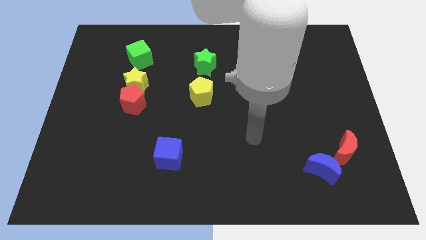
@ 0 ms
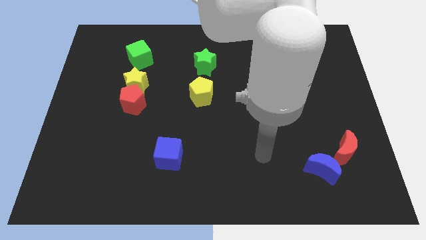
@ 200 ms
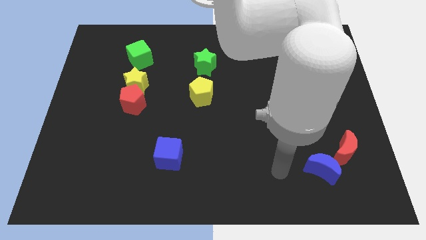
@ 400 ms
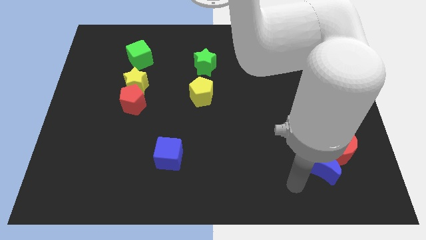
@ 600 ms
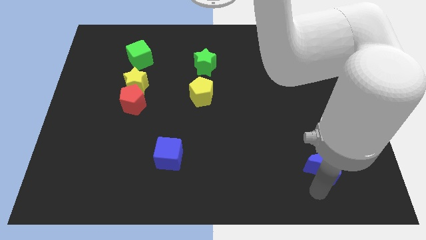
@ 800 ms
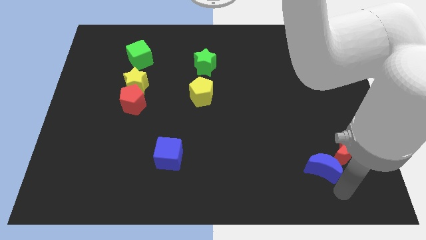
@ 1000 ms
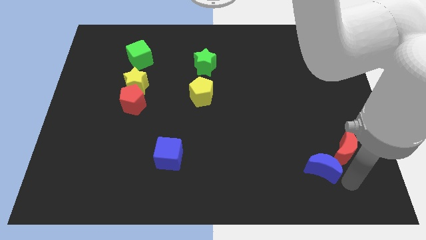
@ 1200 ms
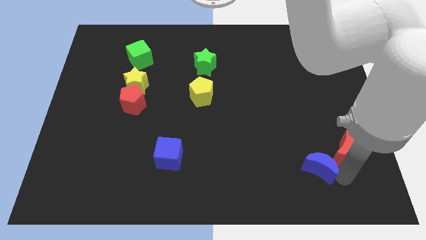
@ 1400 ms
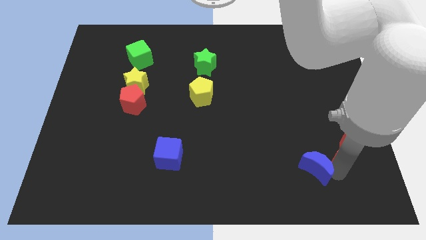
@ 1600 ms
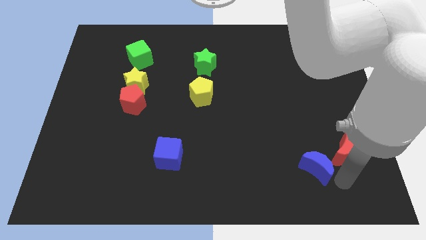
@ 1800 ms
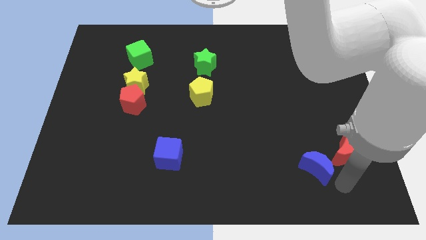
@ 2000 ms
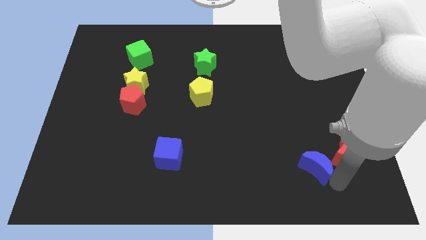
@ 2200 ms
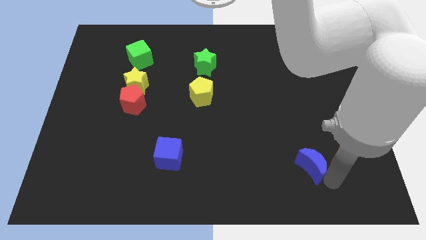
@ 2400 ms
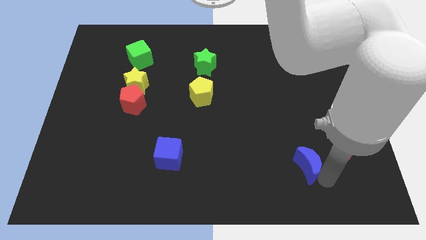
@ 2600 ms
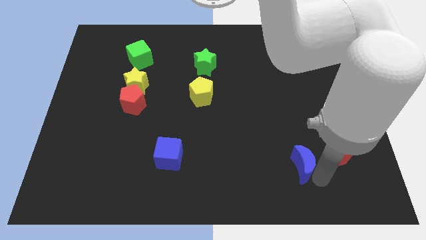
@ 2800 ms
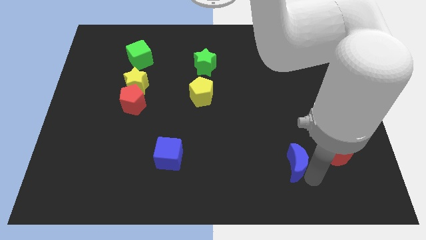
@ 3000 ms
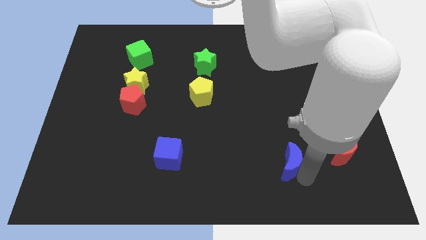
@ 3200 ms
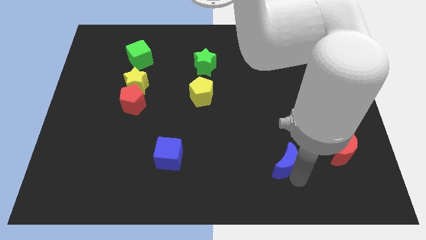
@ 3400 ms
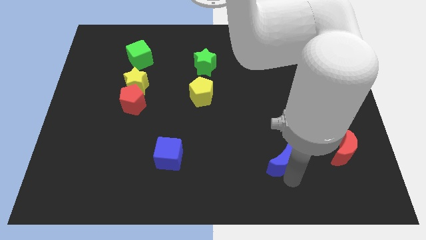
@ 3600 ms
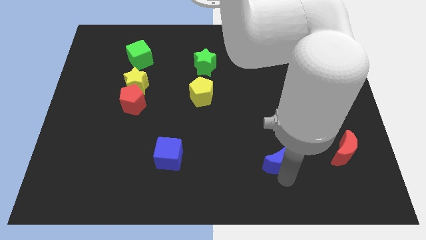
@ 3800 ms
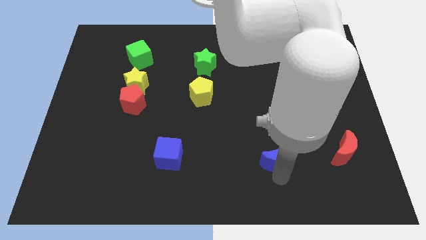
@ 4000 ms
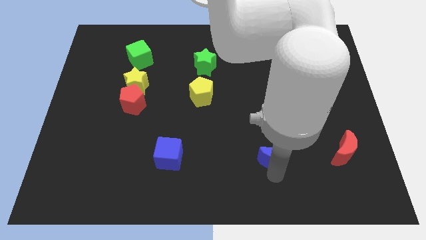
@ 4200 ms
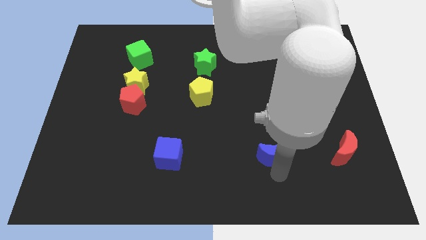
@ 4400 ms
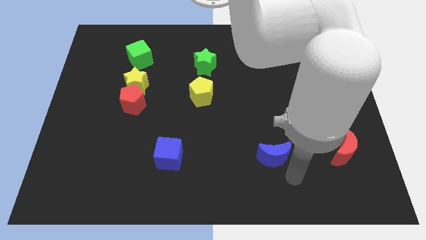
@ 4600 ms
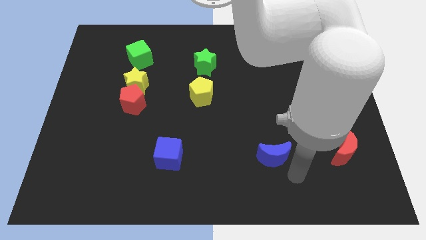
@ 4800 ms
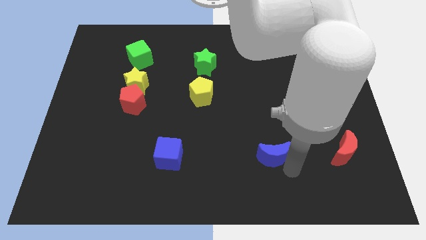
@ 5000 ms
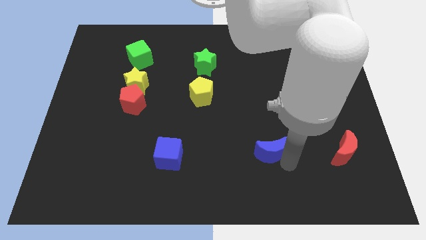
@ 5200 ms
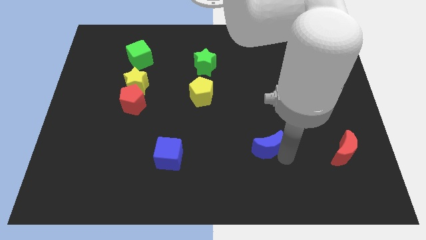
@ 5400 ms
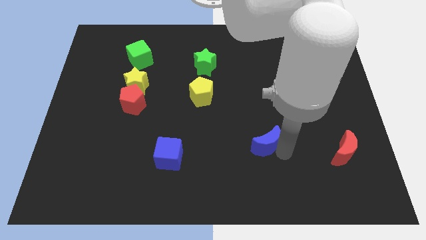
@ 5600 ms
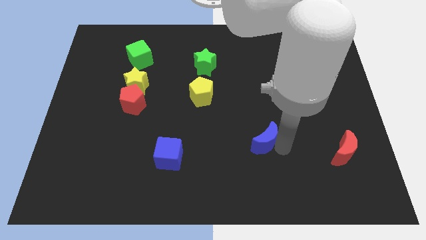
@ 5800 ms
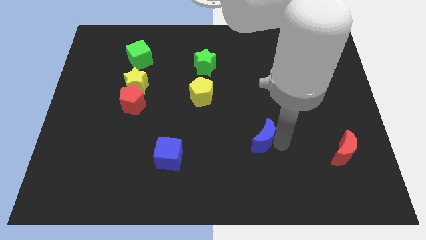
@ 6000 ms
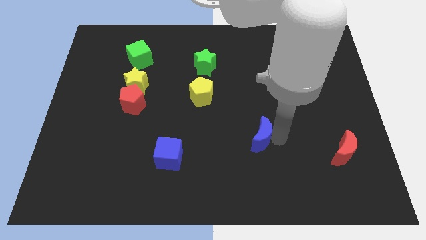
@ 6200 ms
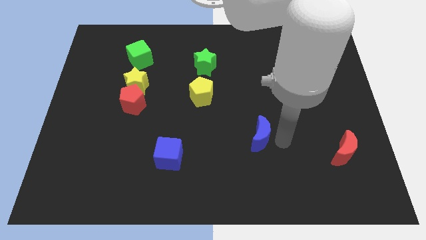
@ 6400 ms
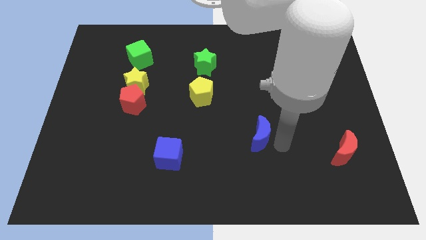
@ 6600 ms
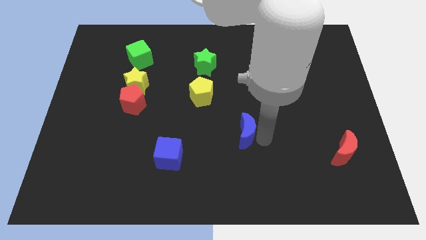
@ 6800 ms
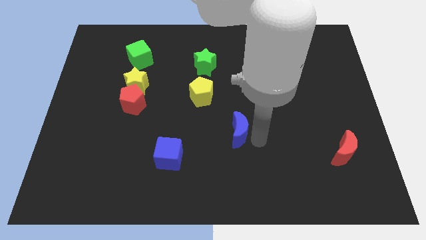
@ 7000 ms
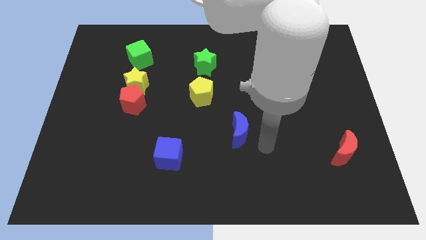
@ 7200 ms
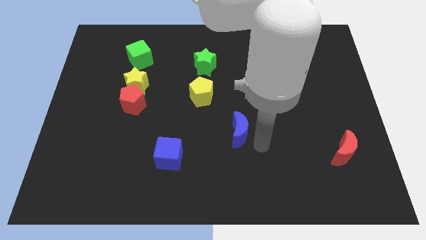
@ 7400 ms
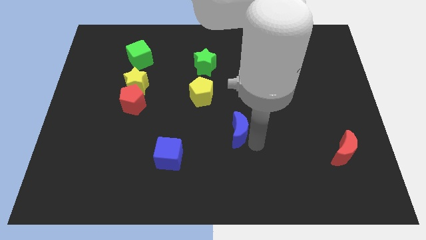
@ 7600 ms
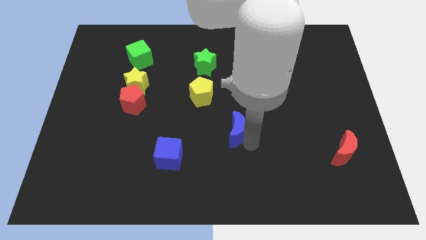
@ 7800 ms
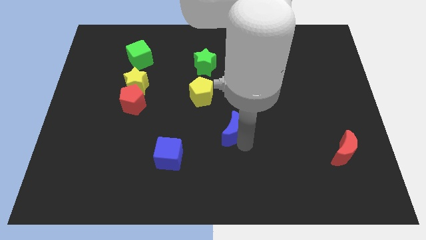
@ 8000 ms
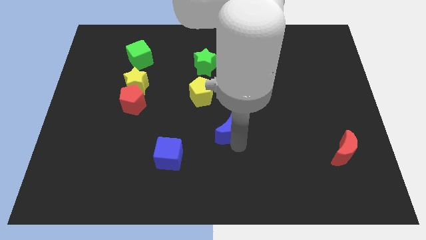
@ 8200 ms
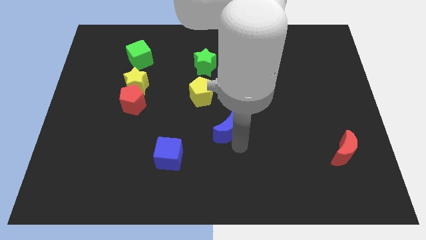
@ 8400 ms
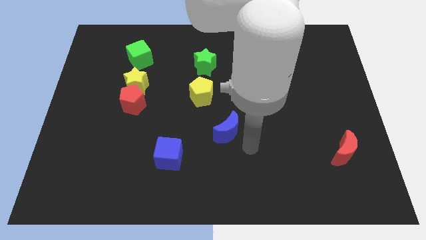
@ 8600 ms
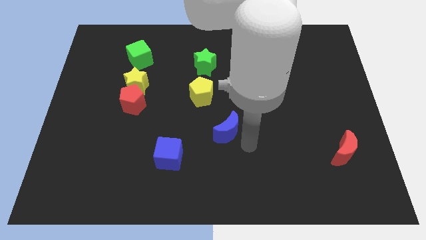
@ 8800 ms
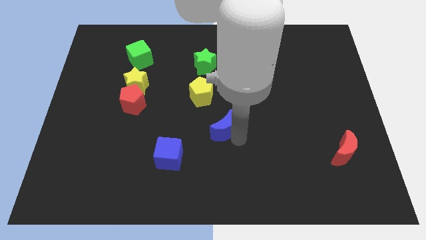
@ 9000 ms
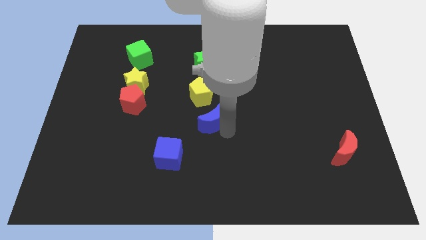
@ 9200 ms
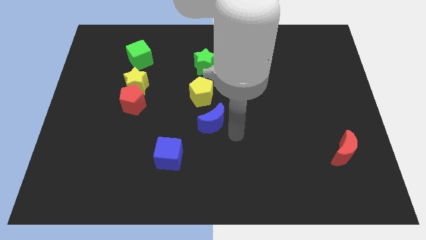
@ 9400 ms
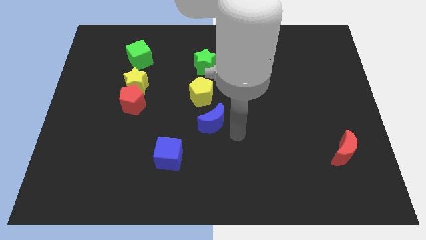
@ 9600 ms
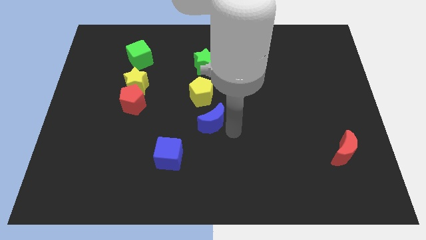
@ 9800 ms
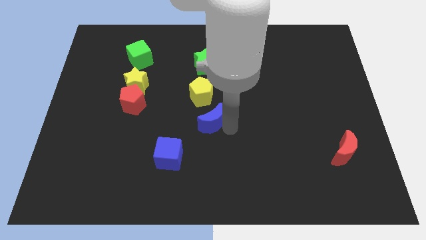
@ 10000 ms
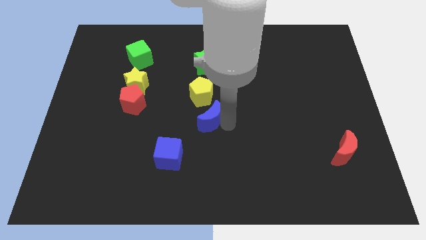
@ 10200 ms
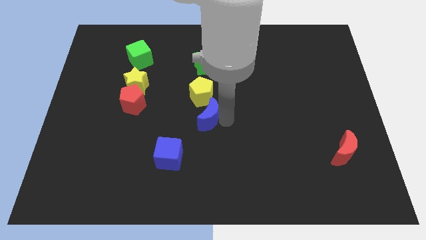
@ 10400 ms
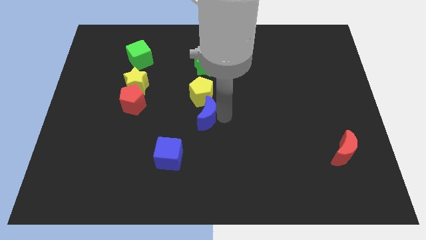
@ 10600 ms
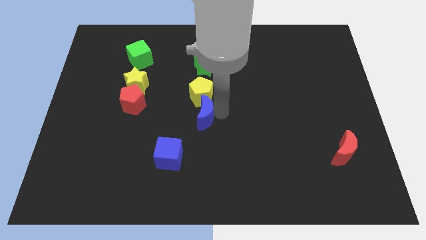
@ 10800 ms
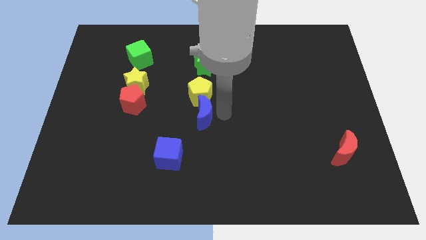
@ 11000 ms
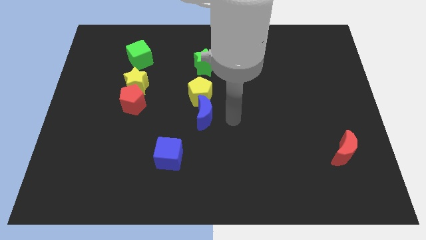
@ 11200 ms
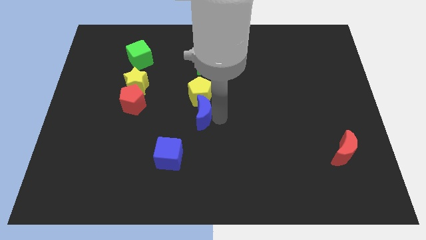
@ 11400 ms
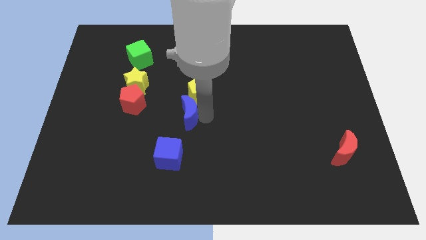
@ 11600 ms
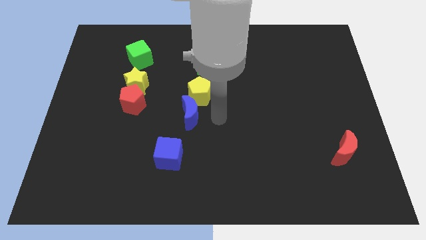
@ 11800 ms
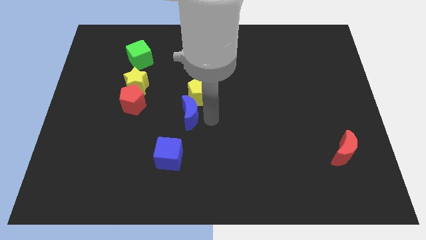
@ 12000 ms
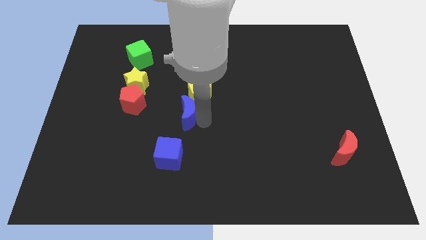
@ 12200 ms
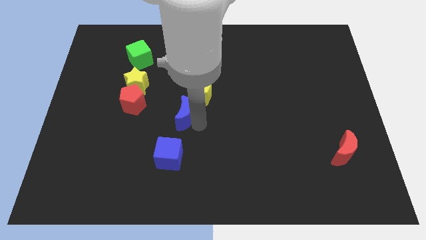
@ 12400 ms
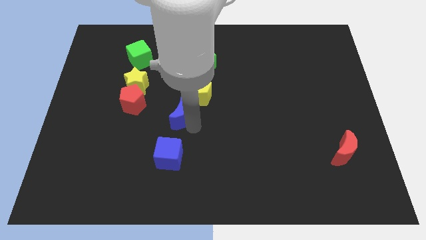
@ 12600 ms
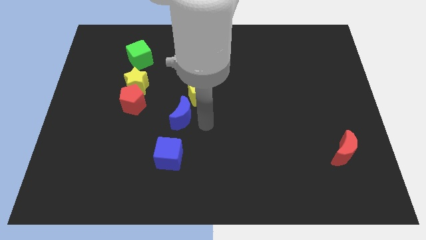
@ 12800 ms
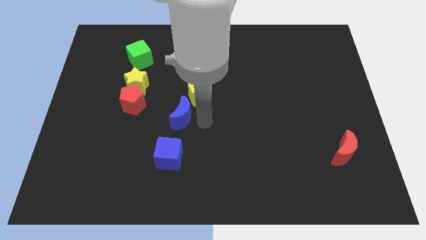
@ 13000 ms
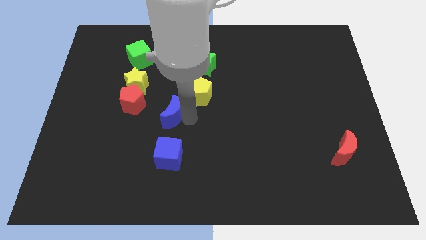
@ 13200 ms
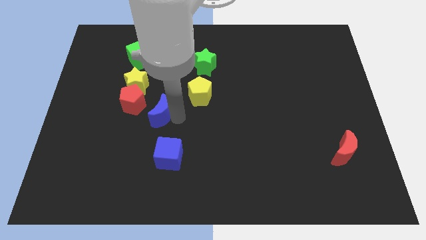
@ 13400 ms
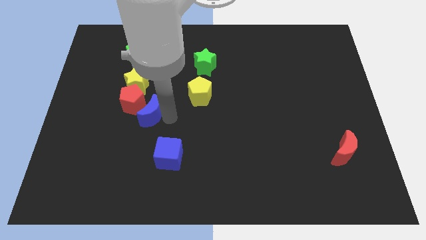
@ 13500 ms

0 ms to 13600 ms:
slide the blue moon close to the red pentagon
